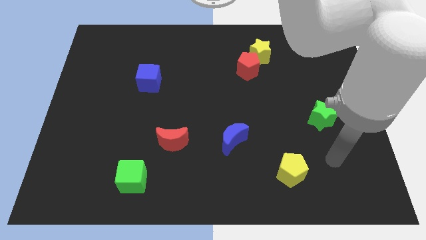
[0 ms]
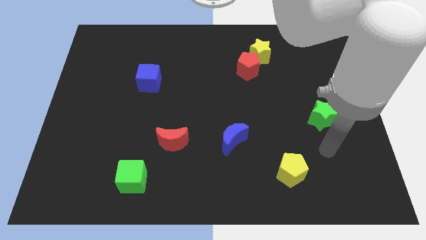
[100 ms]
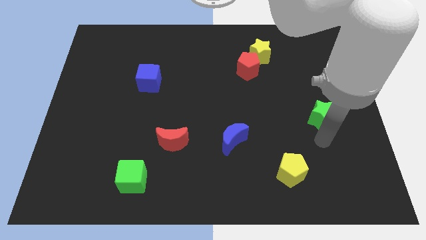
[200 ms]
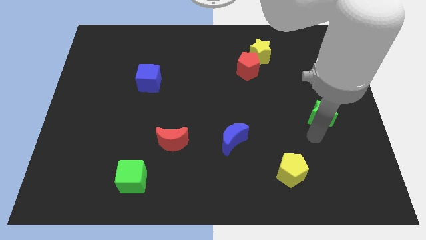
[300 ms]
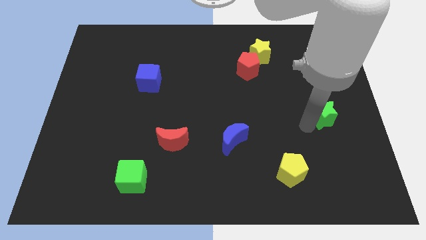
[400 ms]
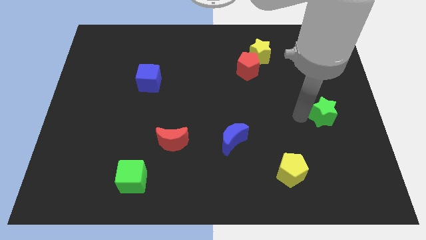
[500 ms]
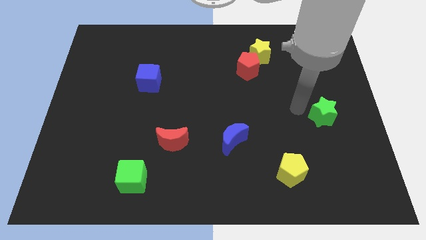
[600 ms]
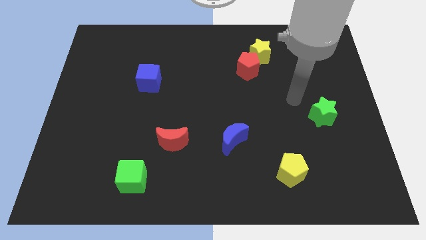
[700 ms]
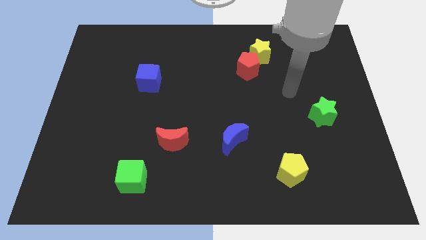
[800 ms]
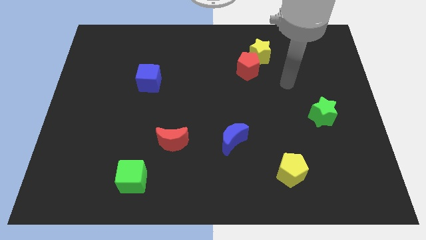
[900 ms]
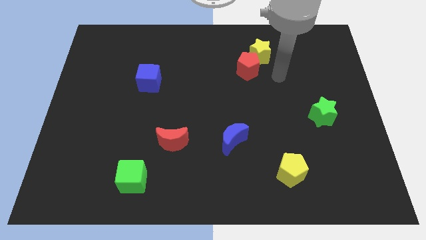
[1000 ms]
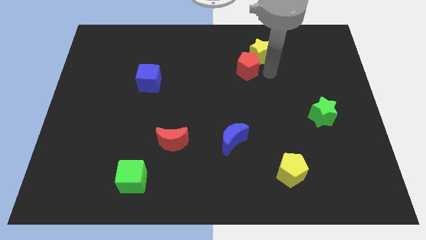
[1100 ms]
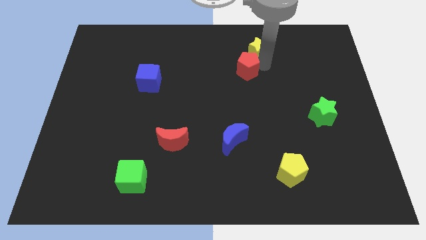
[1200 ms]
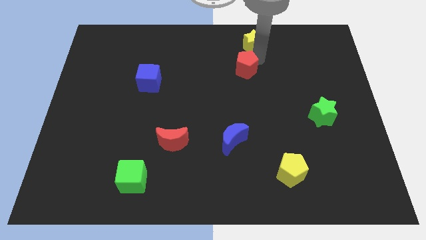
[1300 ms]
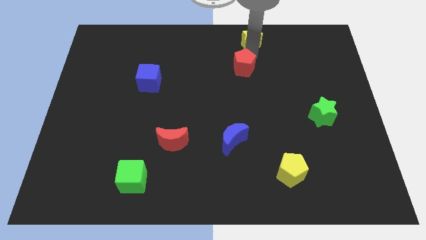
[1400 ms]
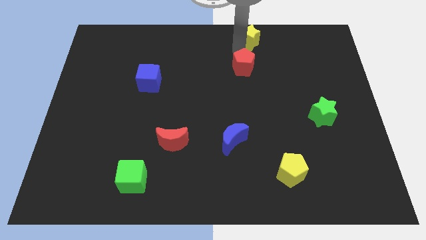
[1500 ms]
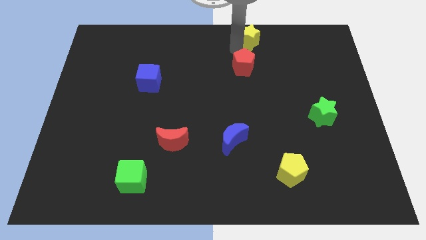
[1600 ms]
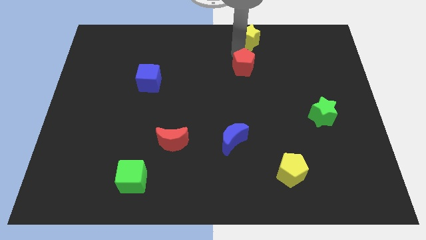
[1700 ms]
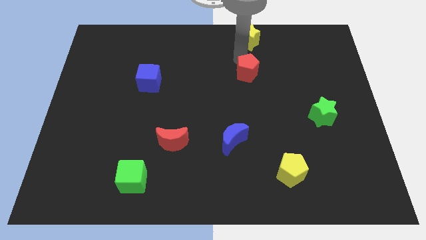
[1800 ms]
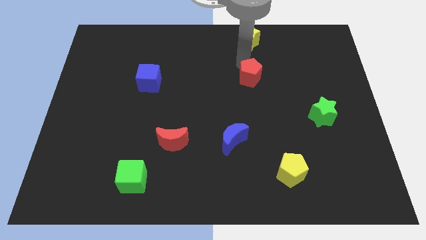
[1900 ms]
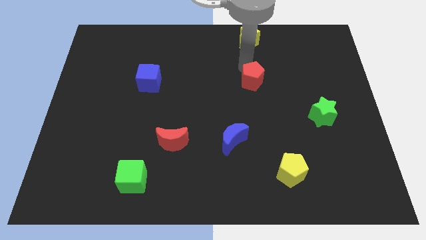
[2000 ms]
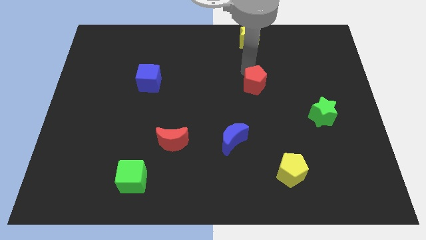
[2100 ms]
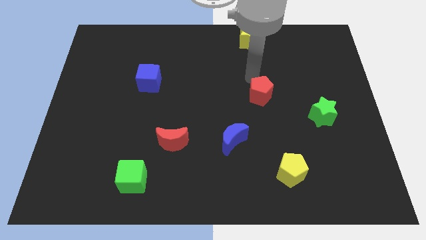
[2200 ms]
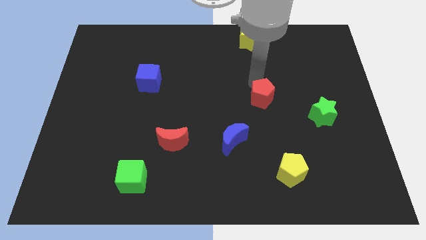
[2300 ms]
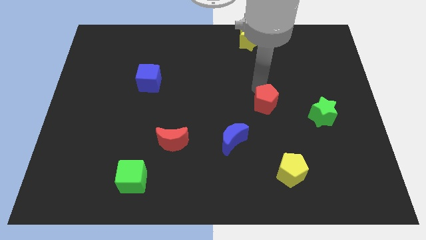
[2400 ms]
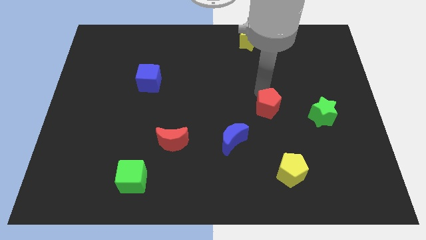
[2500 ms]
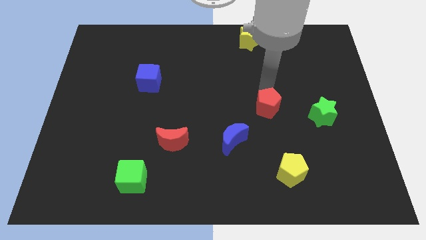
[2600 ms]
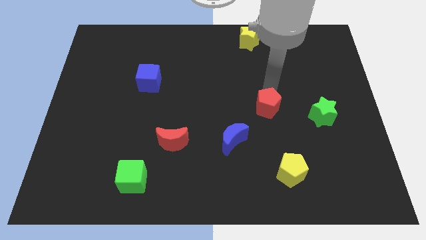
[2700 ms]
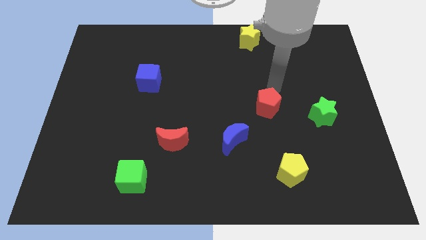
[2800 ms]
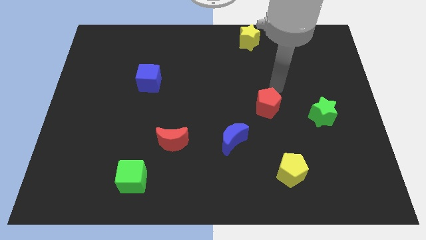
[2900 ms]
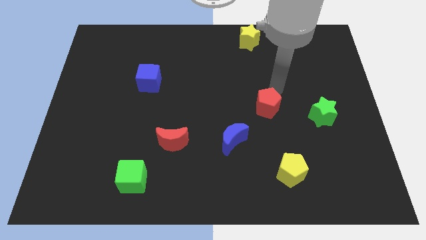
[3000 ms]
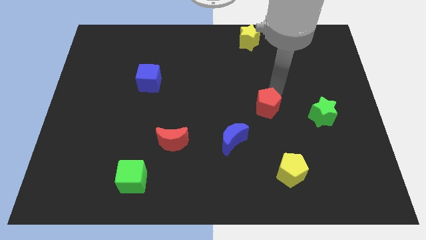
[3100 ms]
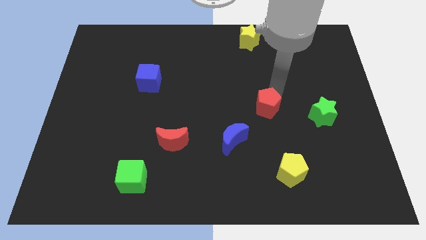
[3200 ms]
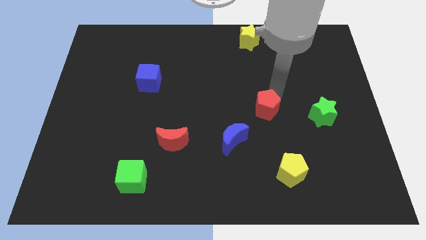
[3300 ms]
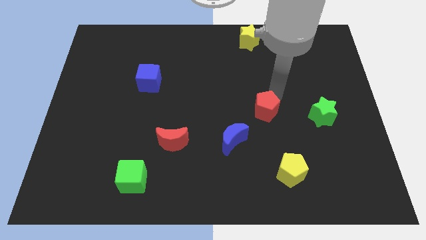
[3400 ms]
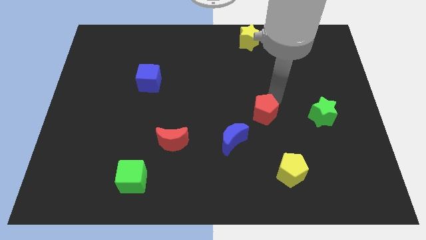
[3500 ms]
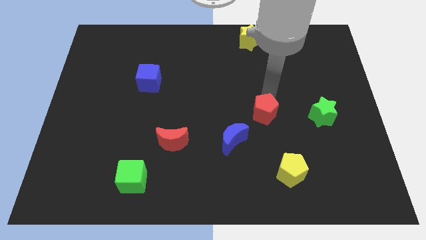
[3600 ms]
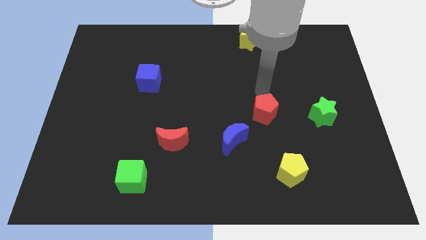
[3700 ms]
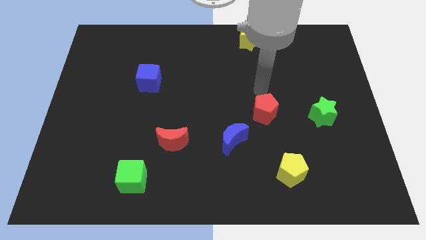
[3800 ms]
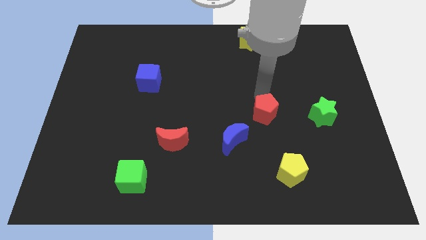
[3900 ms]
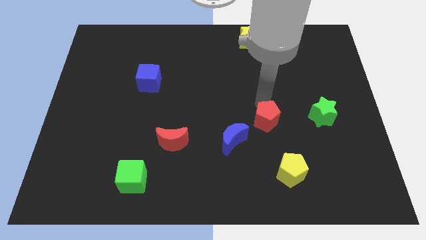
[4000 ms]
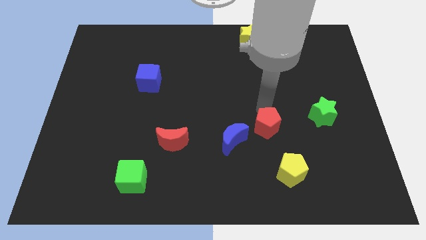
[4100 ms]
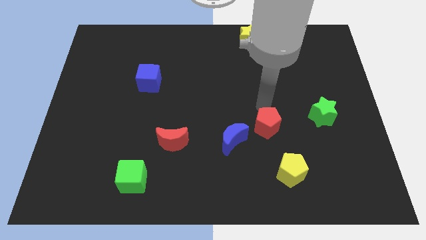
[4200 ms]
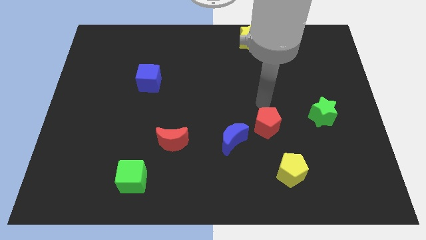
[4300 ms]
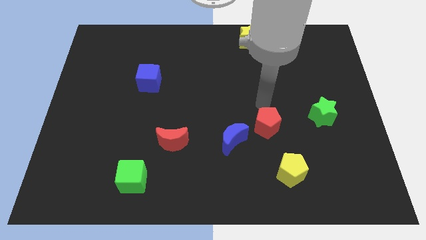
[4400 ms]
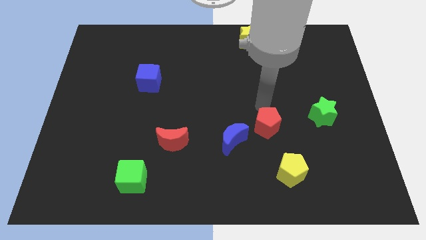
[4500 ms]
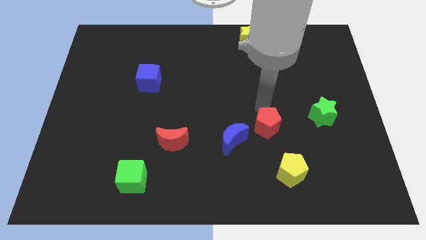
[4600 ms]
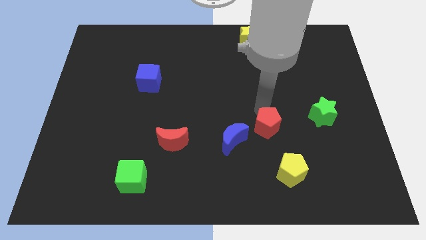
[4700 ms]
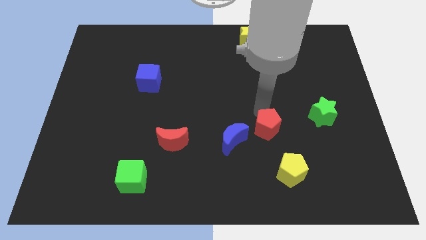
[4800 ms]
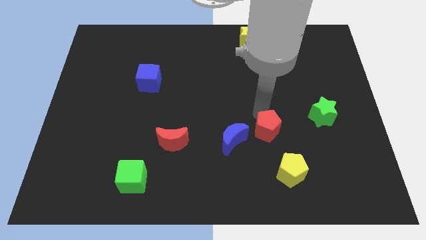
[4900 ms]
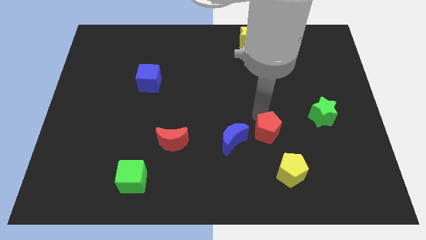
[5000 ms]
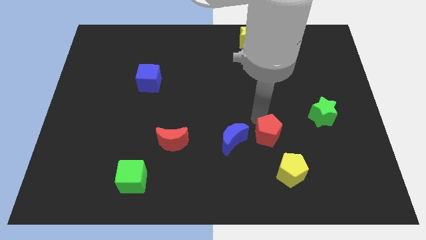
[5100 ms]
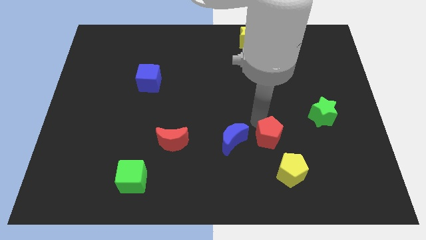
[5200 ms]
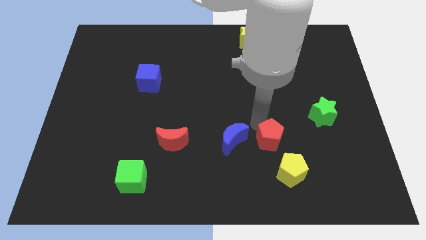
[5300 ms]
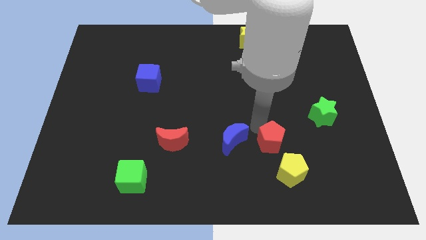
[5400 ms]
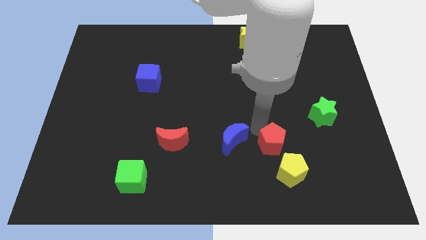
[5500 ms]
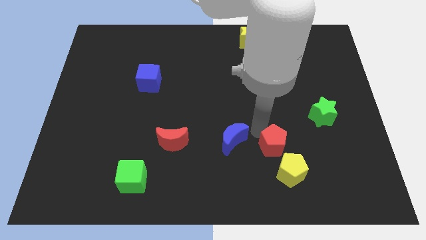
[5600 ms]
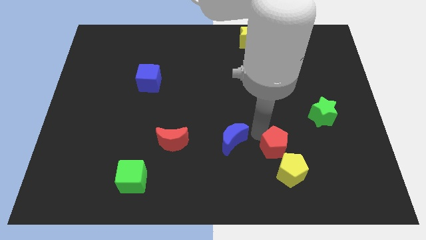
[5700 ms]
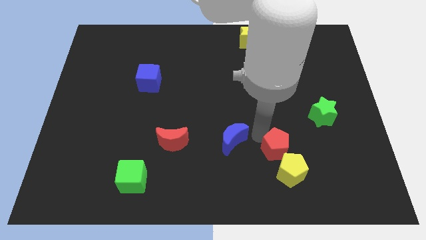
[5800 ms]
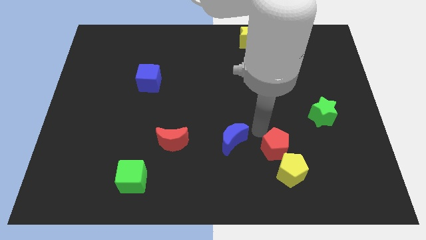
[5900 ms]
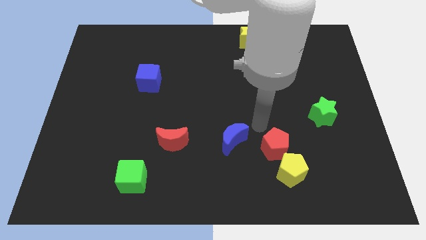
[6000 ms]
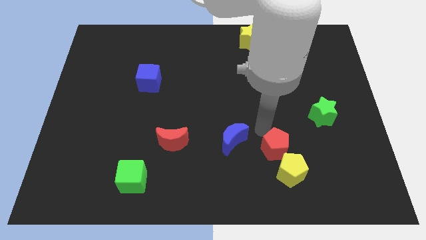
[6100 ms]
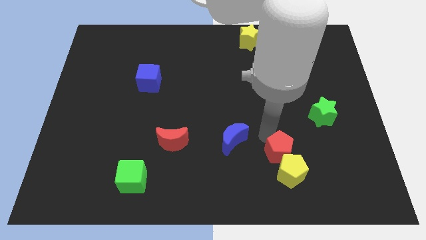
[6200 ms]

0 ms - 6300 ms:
push the red pentagon close to the yellow pentagon

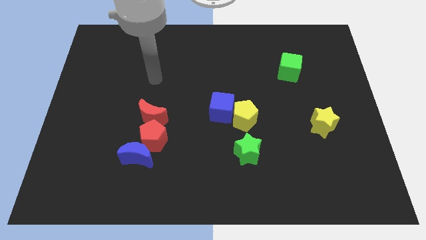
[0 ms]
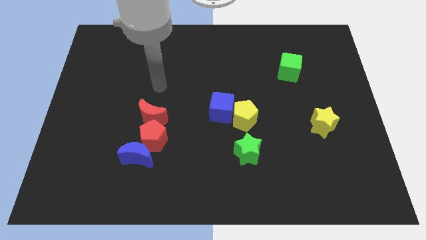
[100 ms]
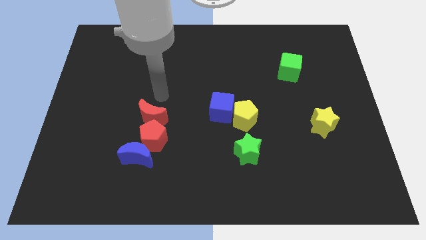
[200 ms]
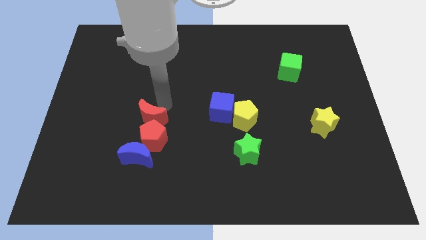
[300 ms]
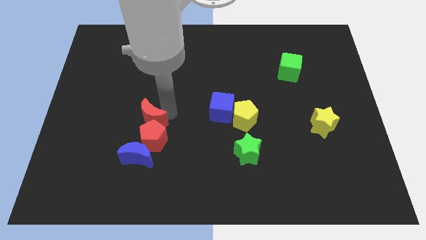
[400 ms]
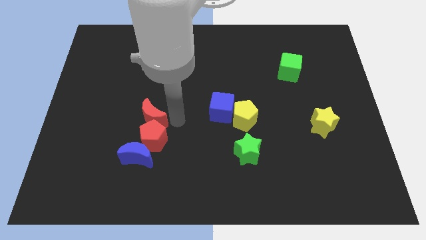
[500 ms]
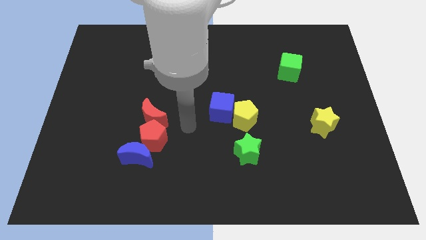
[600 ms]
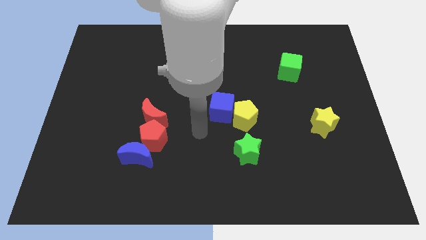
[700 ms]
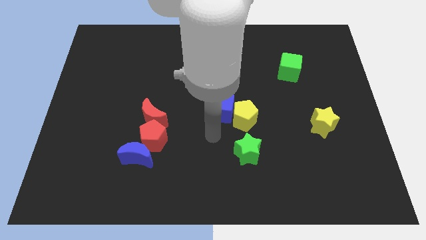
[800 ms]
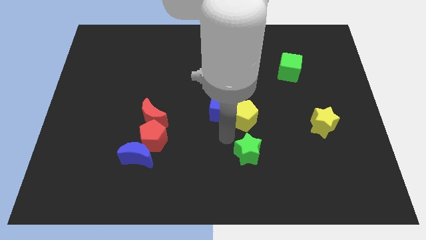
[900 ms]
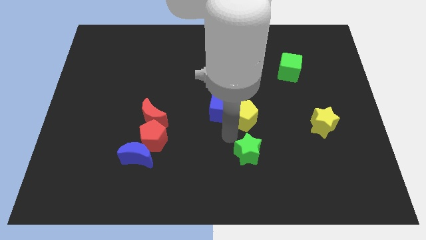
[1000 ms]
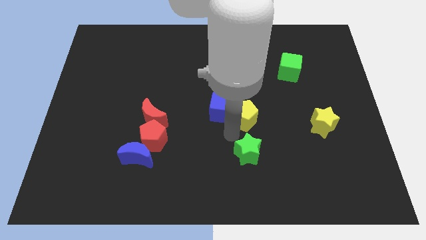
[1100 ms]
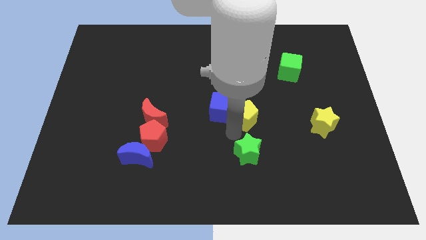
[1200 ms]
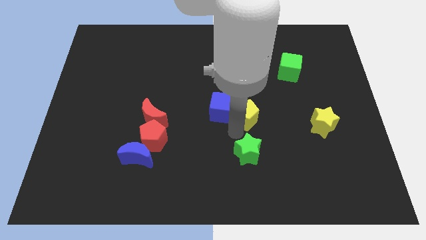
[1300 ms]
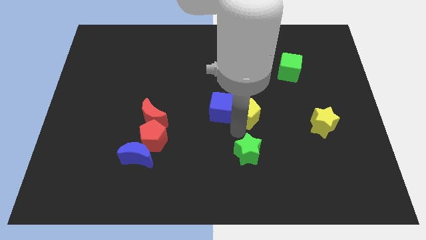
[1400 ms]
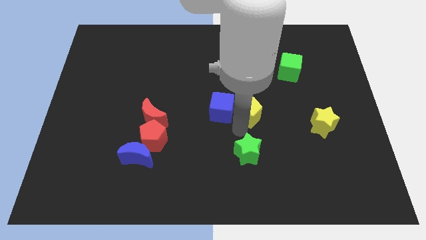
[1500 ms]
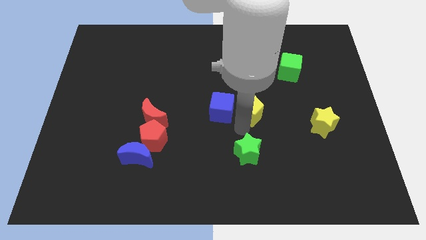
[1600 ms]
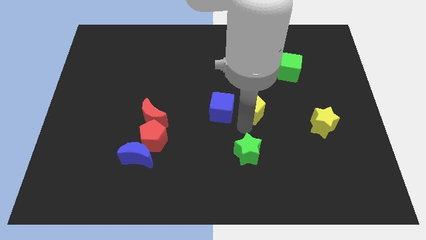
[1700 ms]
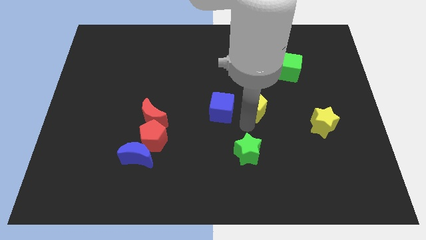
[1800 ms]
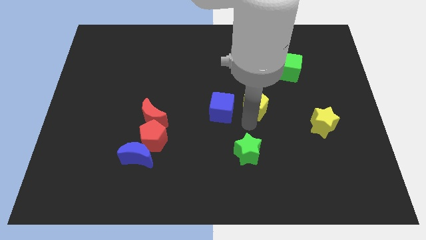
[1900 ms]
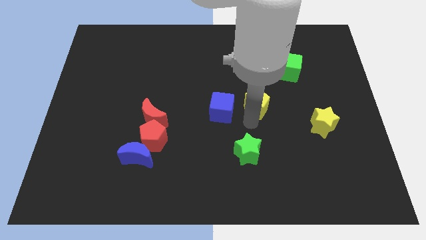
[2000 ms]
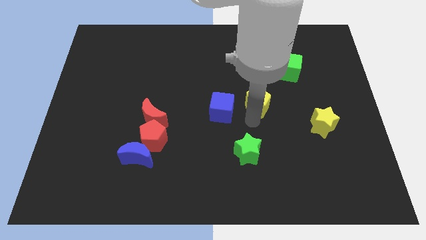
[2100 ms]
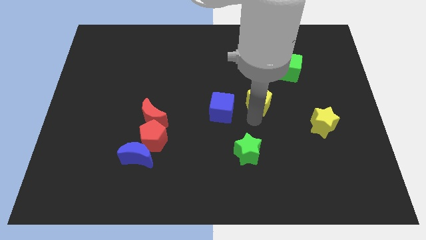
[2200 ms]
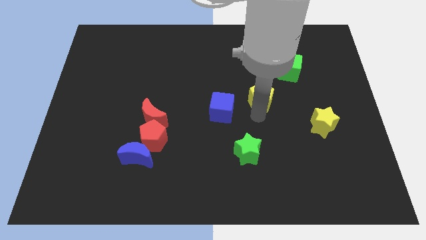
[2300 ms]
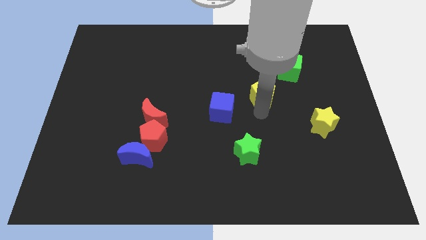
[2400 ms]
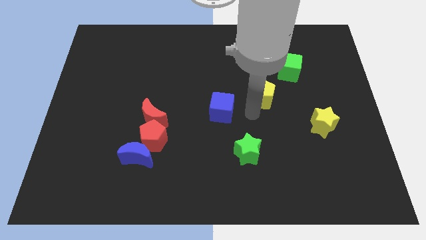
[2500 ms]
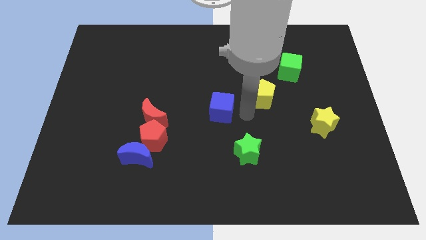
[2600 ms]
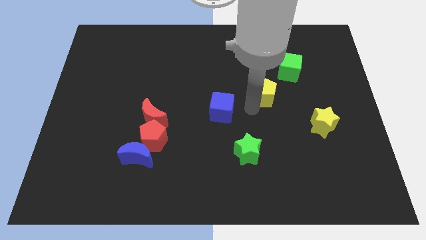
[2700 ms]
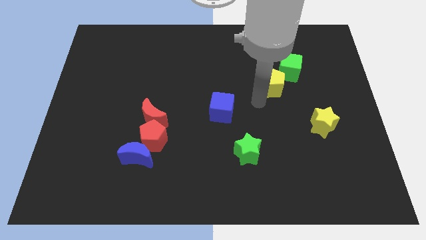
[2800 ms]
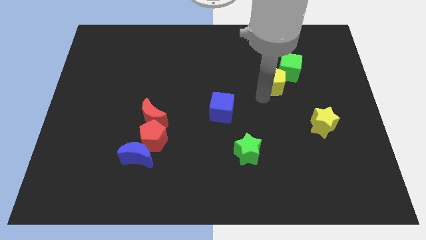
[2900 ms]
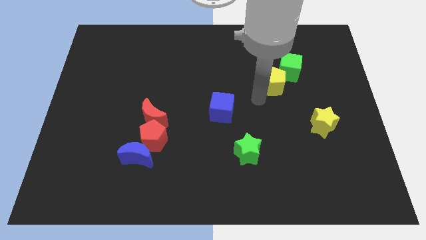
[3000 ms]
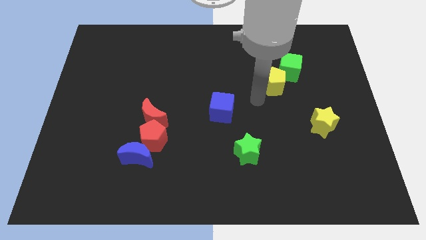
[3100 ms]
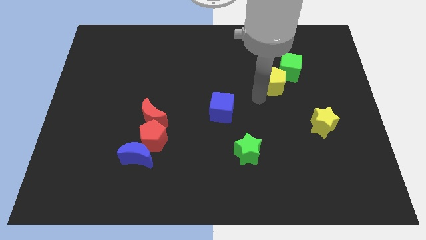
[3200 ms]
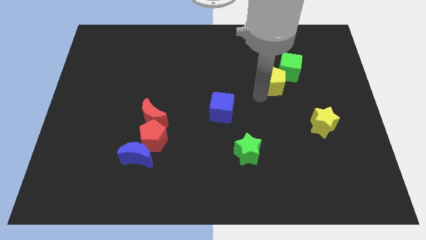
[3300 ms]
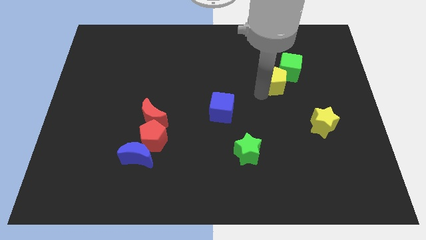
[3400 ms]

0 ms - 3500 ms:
move the yellow pentagon close to the green cube
